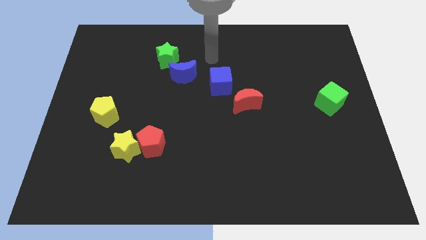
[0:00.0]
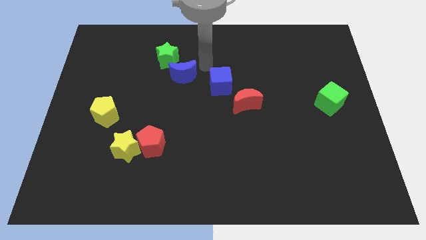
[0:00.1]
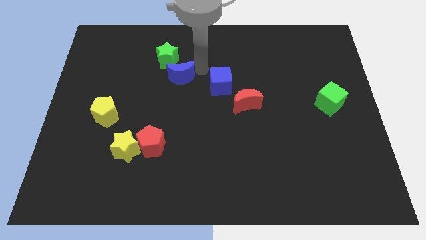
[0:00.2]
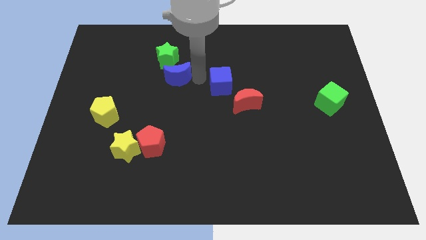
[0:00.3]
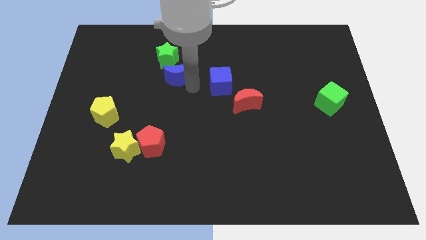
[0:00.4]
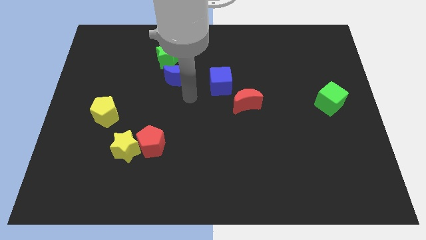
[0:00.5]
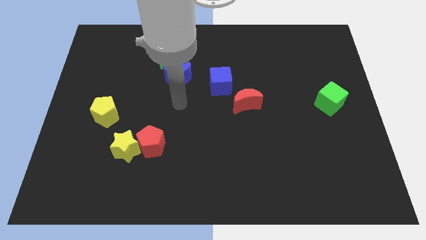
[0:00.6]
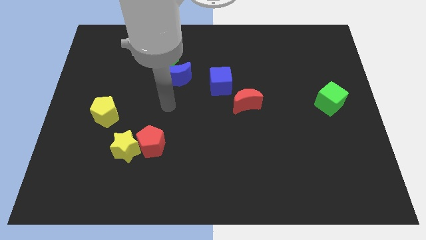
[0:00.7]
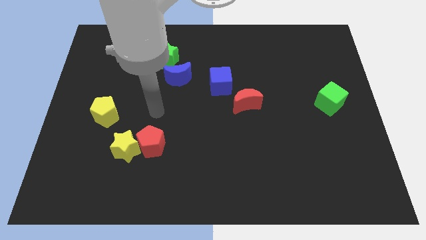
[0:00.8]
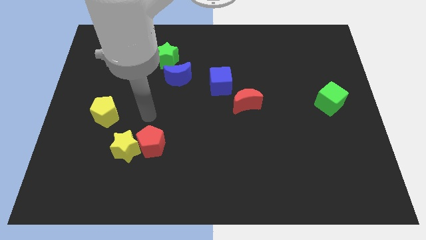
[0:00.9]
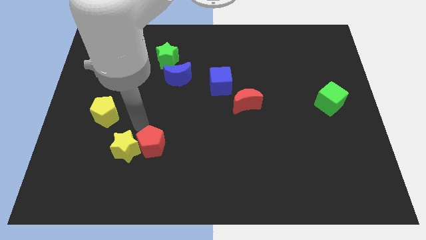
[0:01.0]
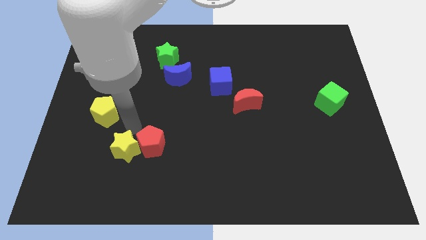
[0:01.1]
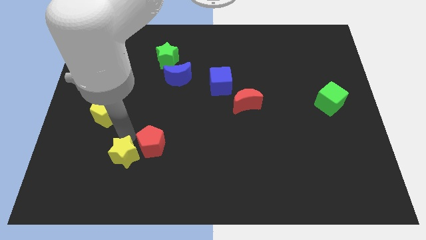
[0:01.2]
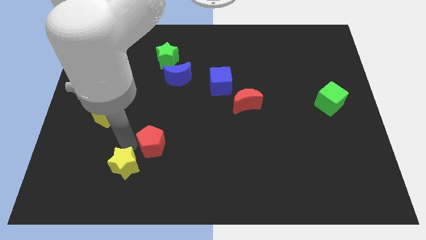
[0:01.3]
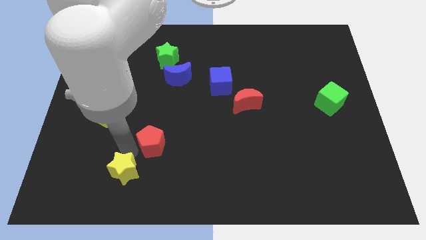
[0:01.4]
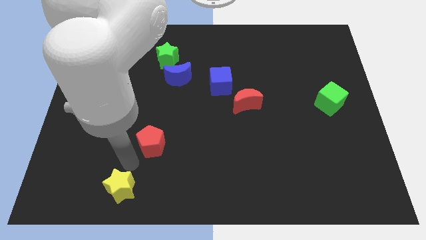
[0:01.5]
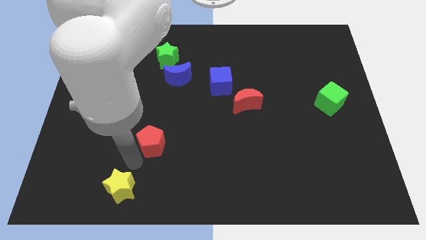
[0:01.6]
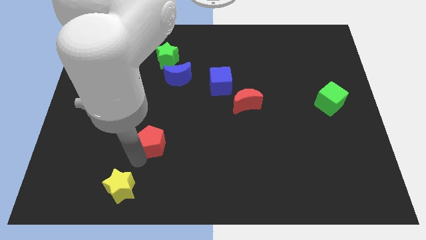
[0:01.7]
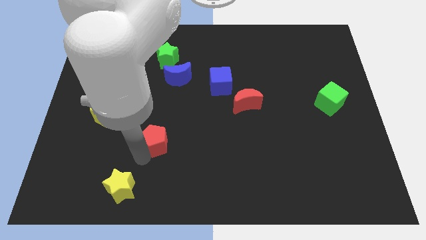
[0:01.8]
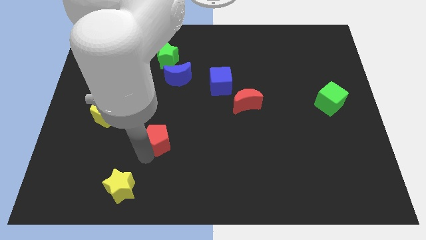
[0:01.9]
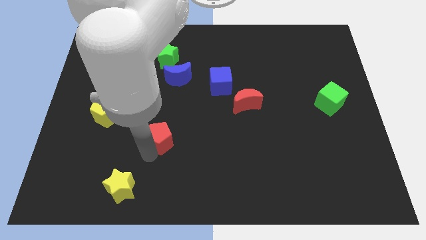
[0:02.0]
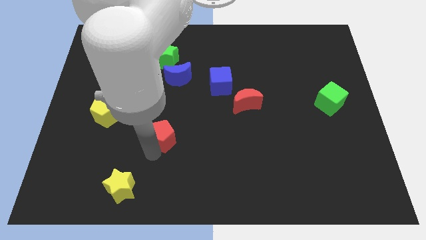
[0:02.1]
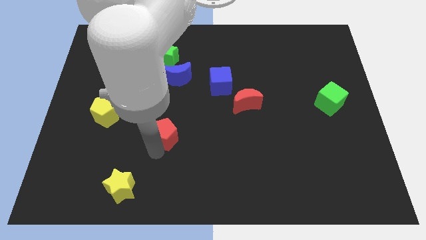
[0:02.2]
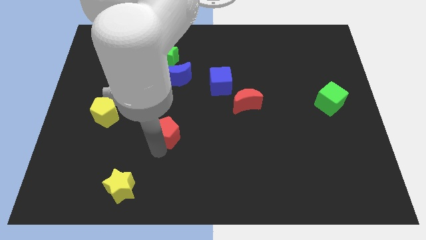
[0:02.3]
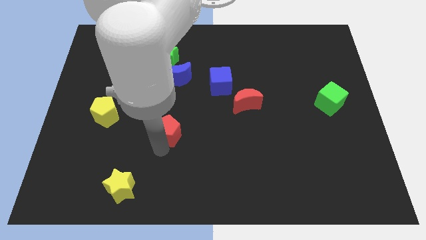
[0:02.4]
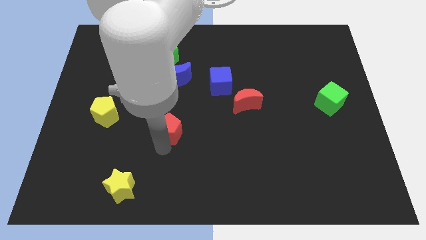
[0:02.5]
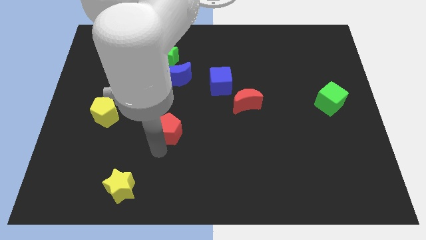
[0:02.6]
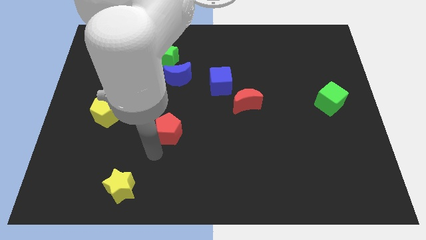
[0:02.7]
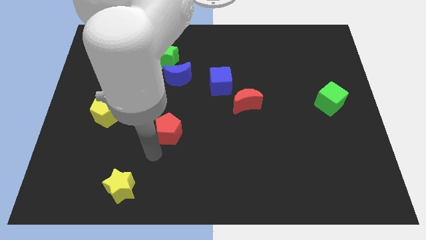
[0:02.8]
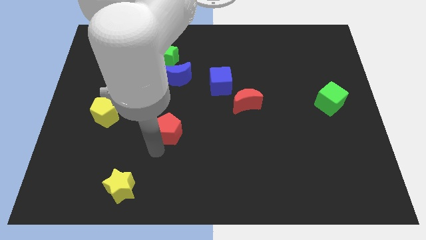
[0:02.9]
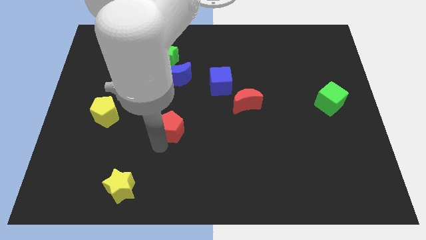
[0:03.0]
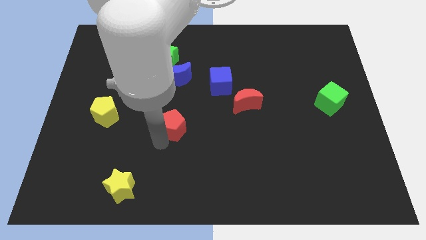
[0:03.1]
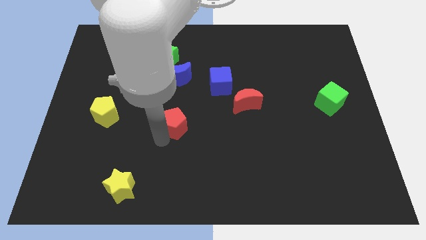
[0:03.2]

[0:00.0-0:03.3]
slightly push the red pentagon upwards and then to the right

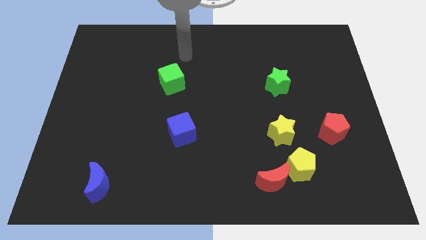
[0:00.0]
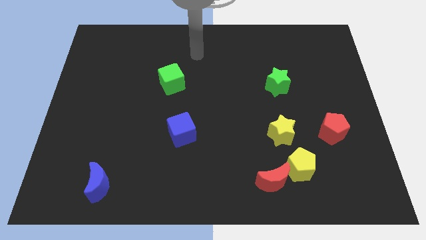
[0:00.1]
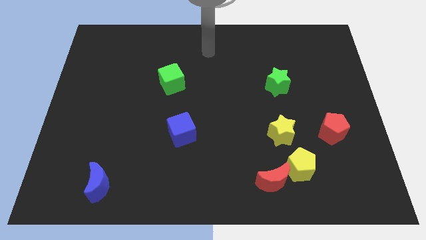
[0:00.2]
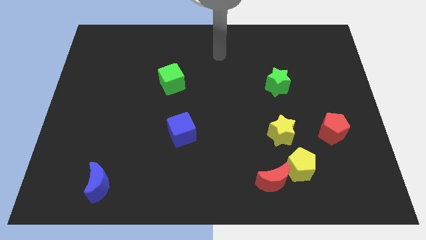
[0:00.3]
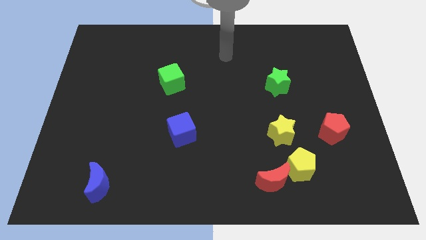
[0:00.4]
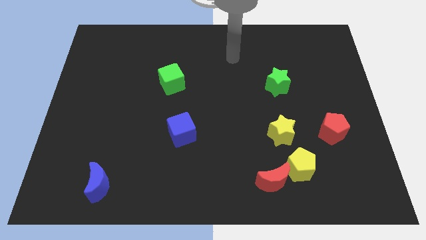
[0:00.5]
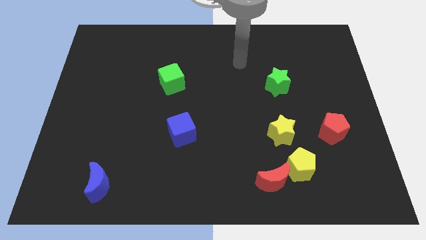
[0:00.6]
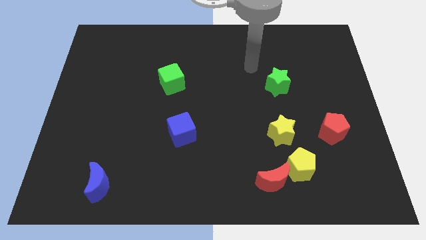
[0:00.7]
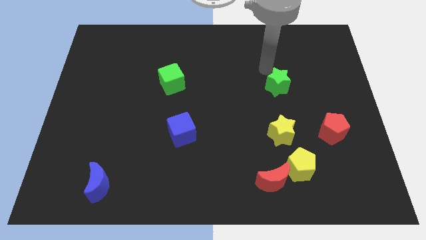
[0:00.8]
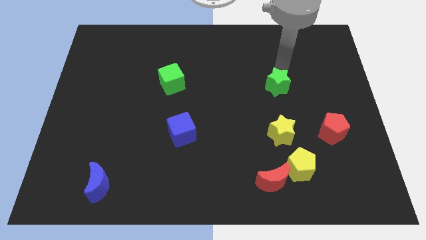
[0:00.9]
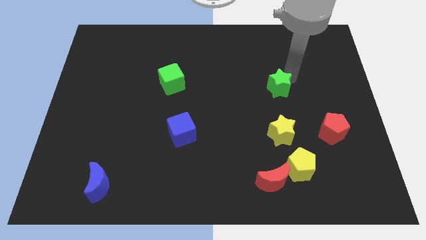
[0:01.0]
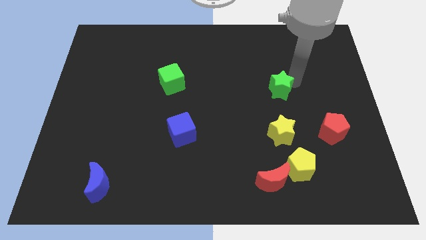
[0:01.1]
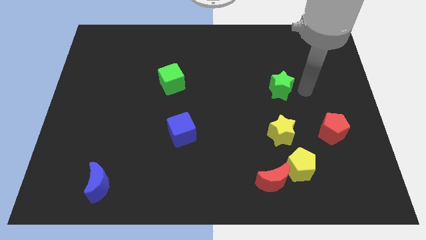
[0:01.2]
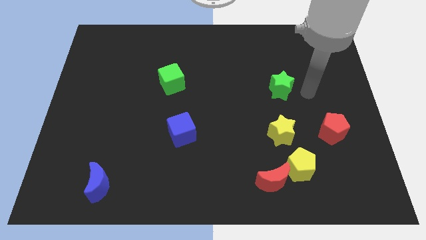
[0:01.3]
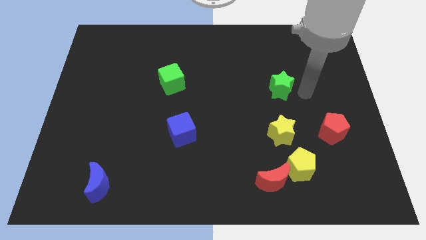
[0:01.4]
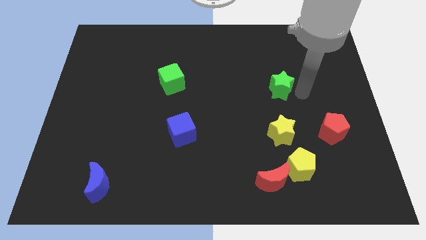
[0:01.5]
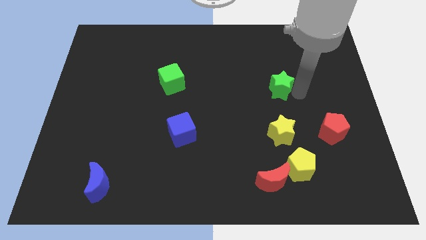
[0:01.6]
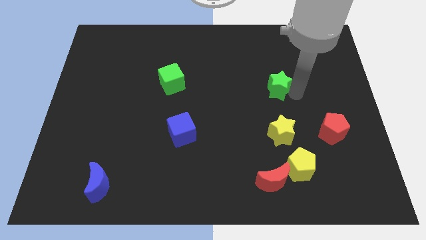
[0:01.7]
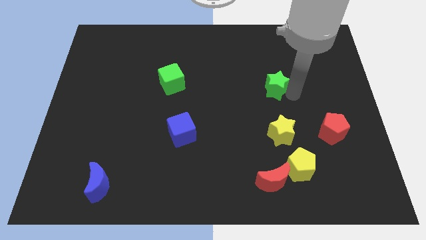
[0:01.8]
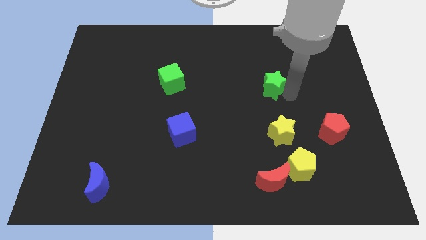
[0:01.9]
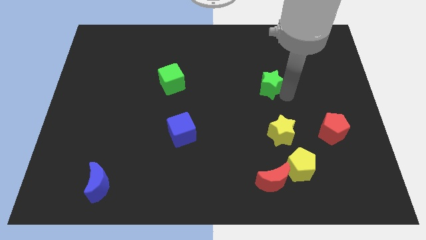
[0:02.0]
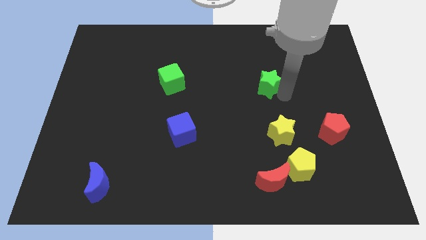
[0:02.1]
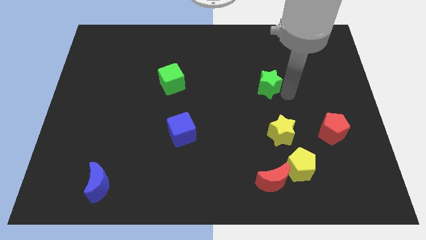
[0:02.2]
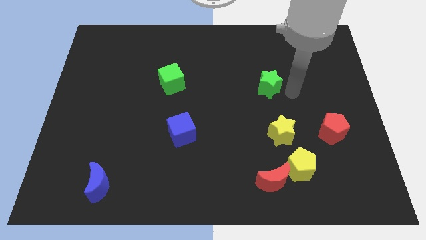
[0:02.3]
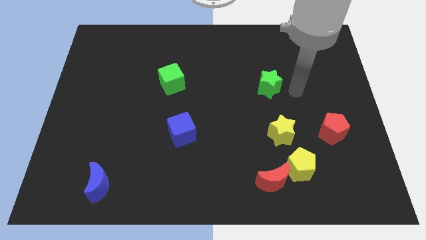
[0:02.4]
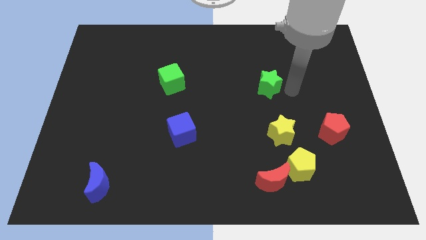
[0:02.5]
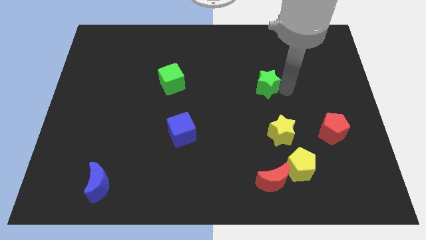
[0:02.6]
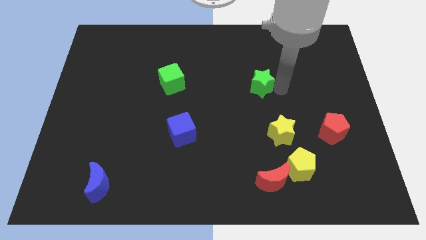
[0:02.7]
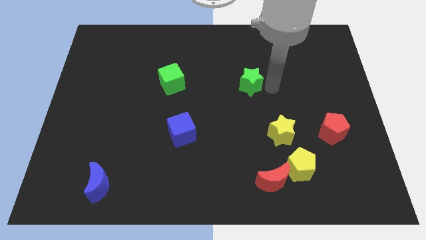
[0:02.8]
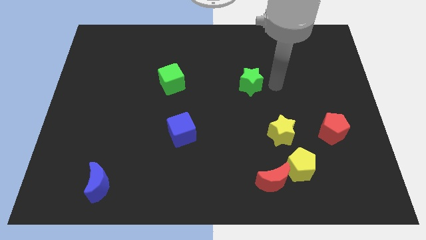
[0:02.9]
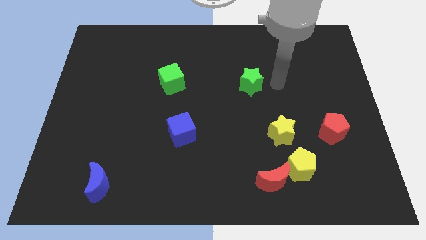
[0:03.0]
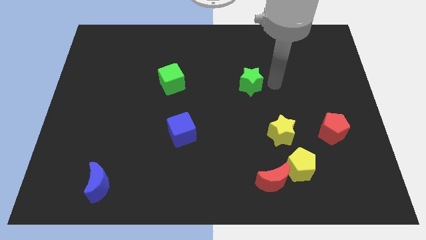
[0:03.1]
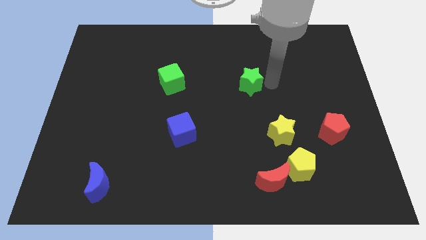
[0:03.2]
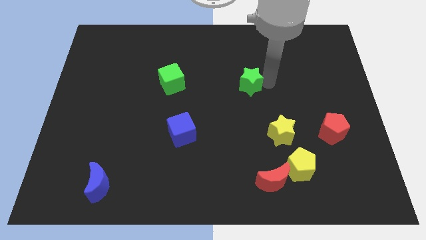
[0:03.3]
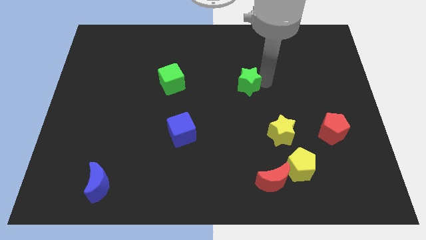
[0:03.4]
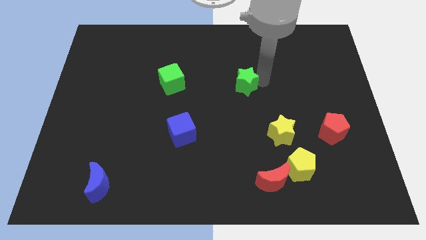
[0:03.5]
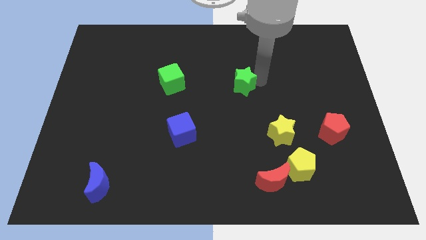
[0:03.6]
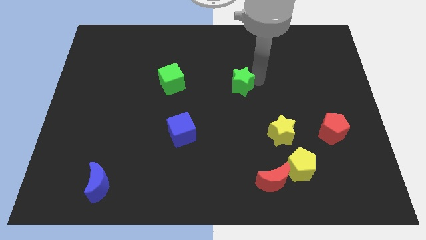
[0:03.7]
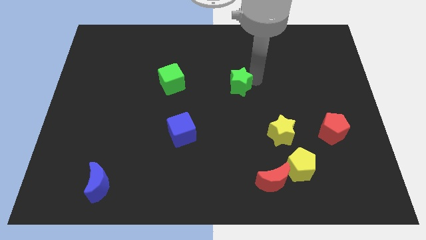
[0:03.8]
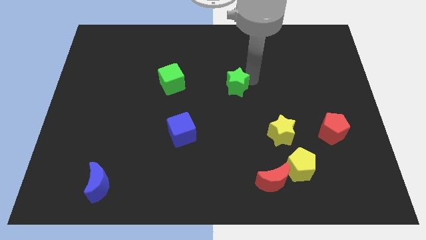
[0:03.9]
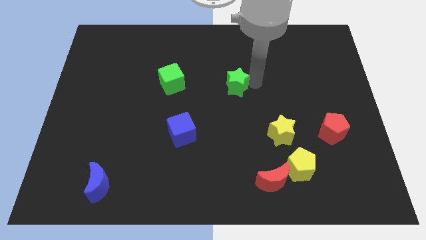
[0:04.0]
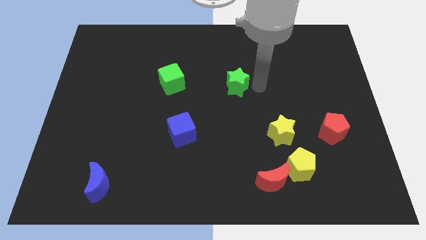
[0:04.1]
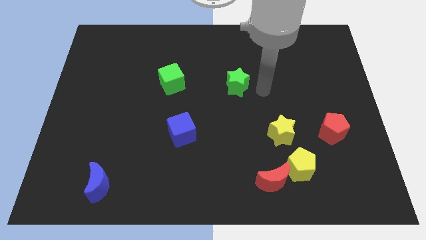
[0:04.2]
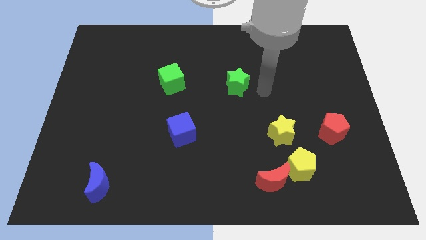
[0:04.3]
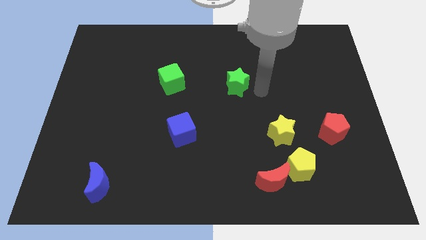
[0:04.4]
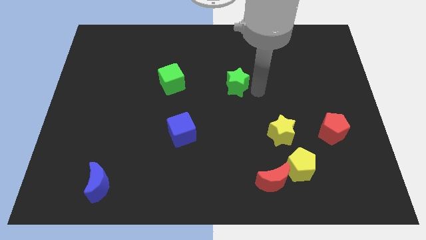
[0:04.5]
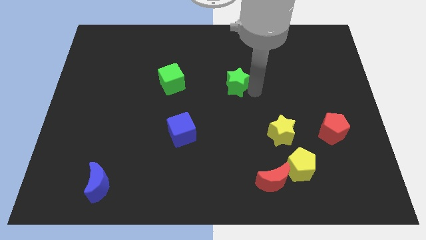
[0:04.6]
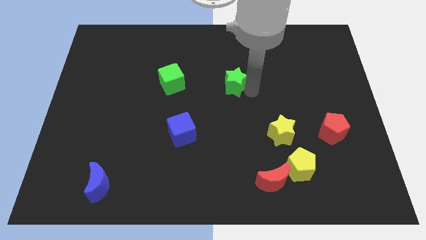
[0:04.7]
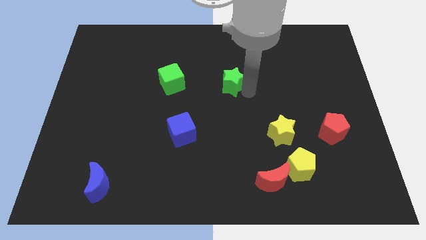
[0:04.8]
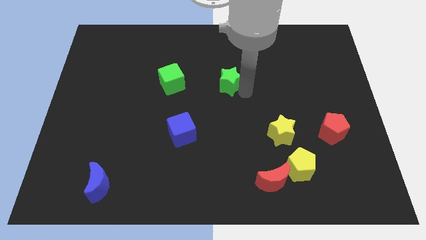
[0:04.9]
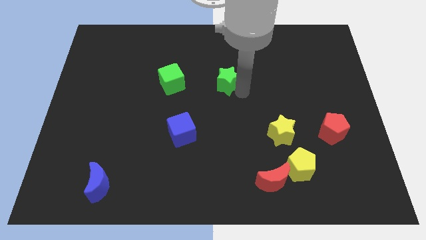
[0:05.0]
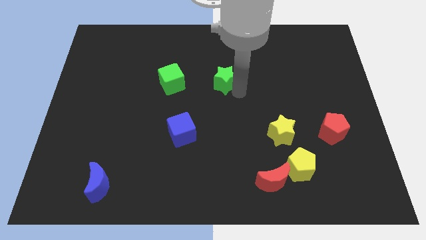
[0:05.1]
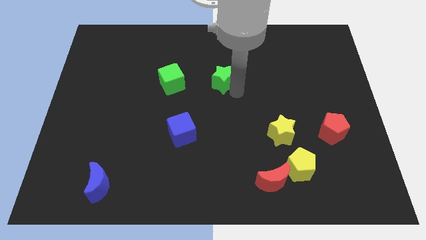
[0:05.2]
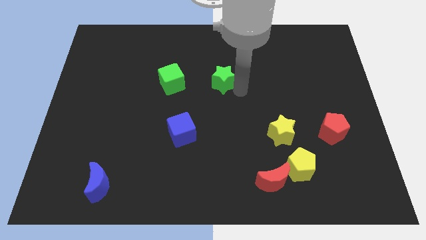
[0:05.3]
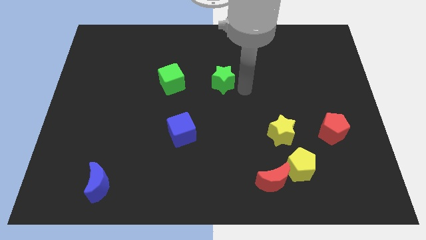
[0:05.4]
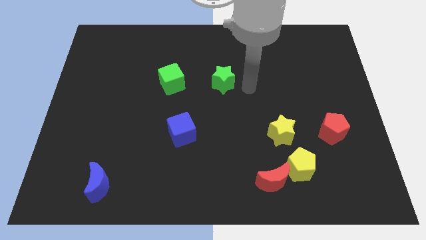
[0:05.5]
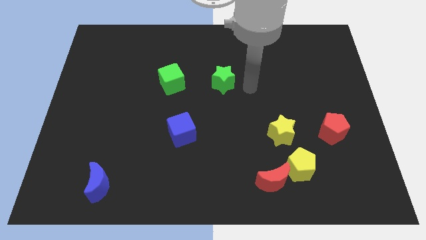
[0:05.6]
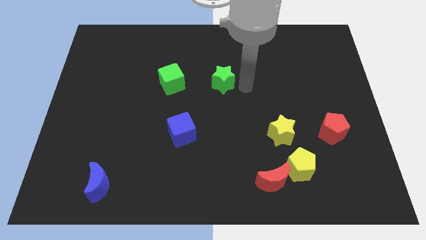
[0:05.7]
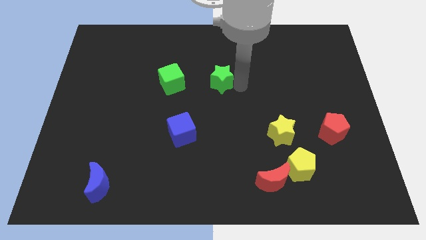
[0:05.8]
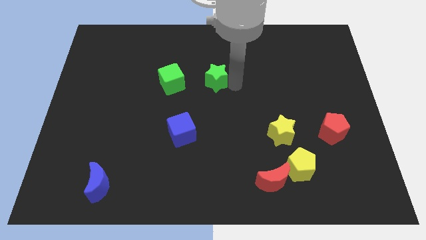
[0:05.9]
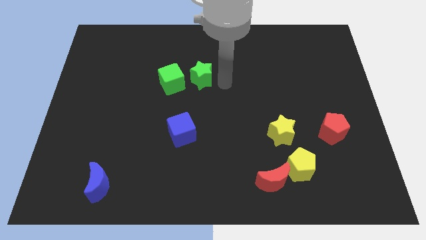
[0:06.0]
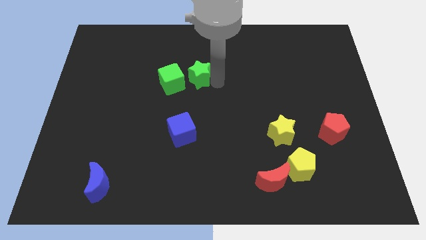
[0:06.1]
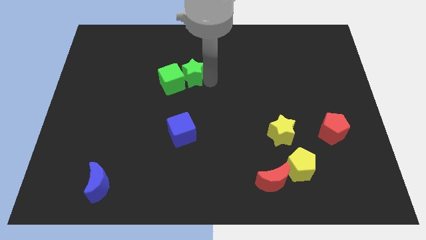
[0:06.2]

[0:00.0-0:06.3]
push the green star left
